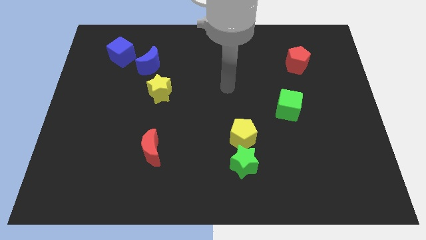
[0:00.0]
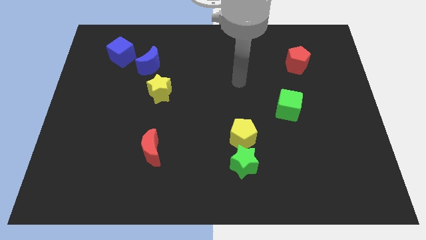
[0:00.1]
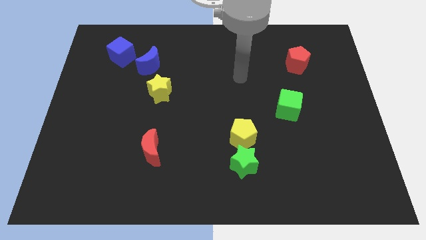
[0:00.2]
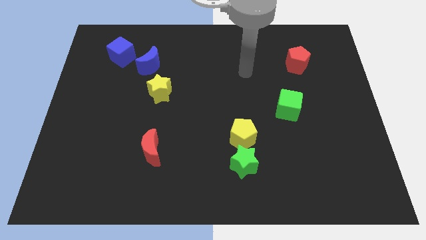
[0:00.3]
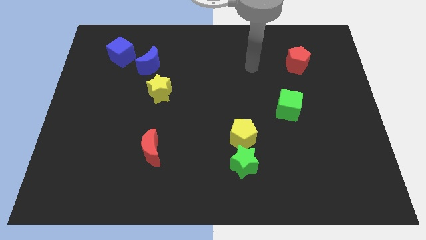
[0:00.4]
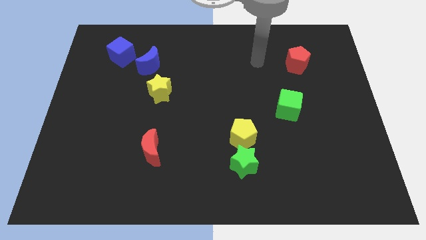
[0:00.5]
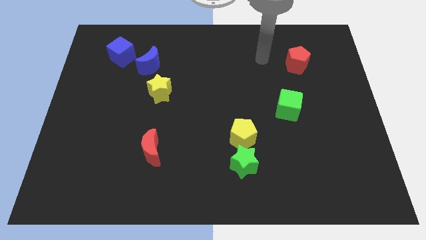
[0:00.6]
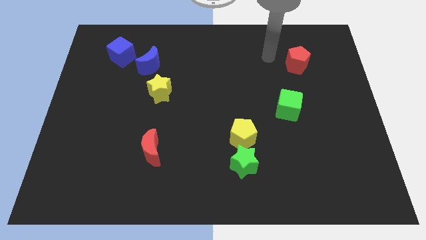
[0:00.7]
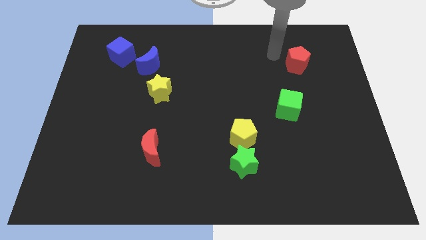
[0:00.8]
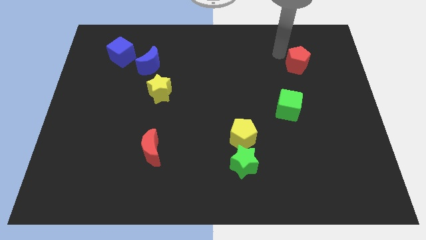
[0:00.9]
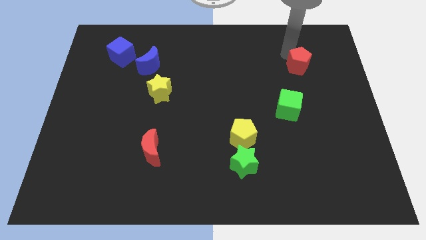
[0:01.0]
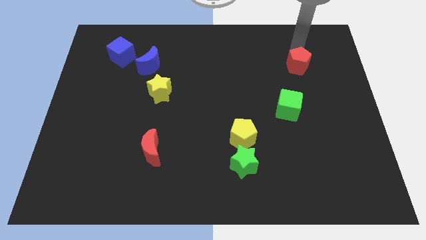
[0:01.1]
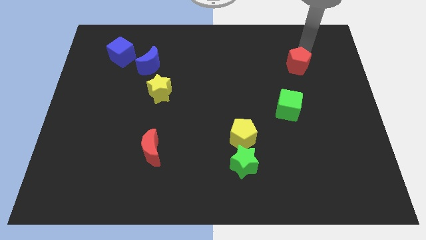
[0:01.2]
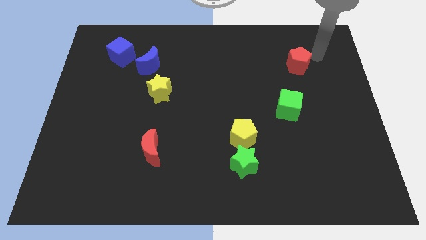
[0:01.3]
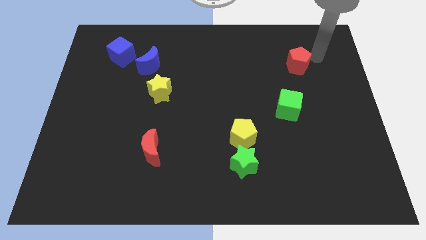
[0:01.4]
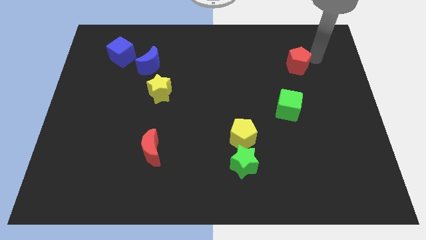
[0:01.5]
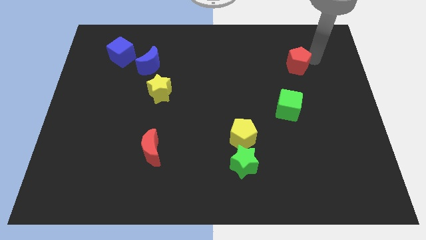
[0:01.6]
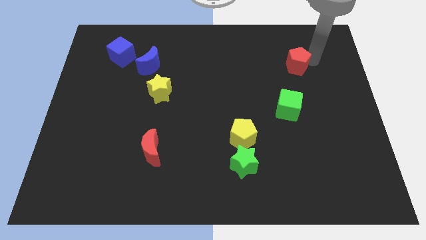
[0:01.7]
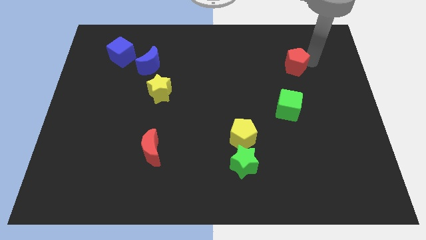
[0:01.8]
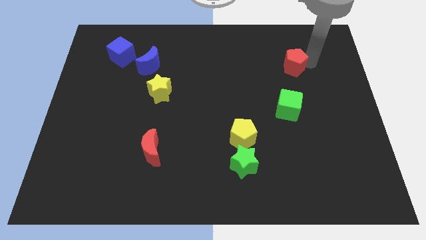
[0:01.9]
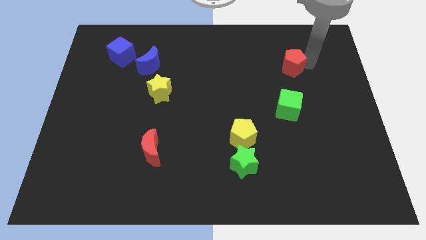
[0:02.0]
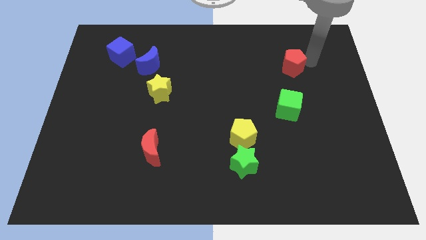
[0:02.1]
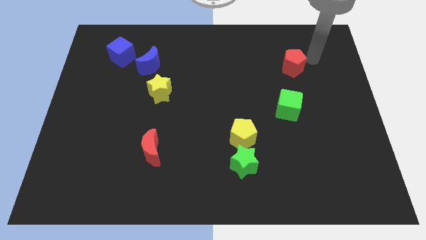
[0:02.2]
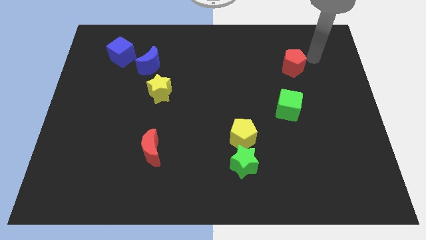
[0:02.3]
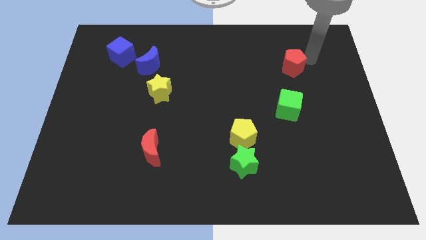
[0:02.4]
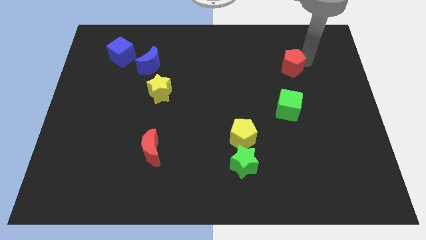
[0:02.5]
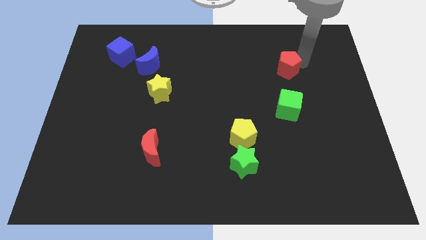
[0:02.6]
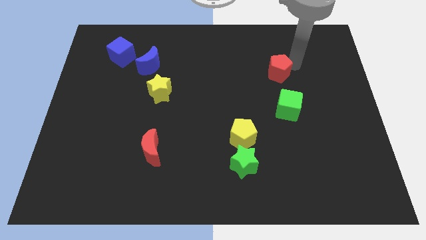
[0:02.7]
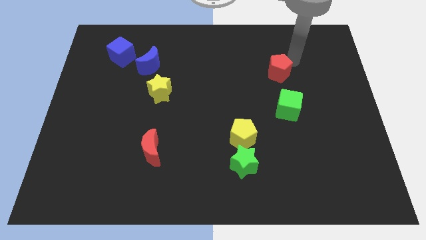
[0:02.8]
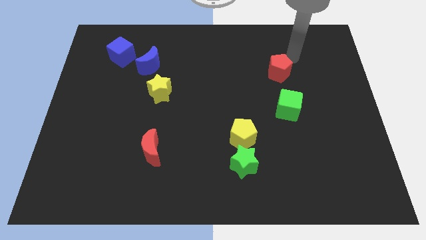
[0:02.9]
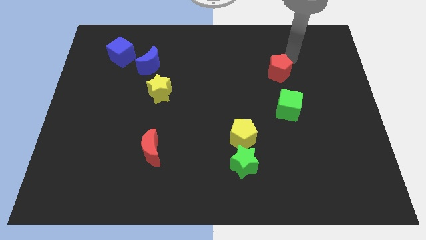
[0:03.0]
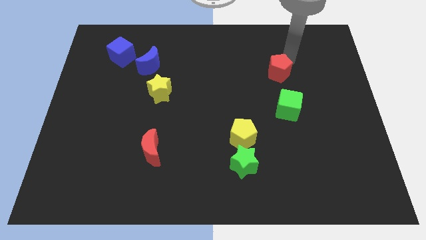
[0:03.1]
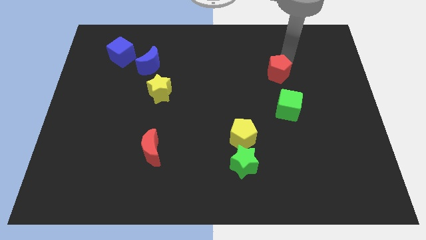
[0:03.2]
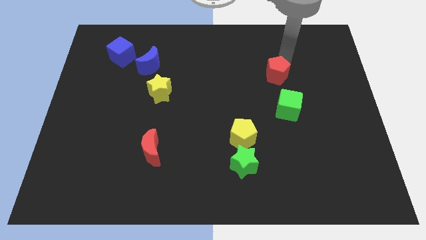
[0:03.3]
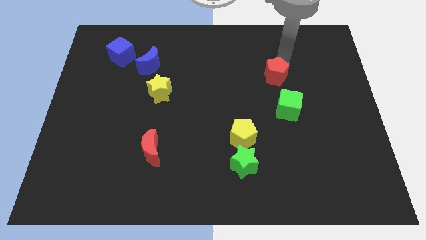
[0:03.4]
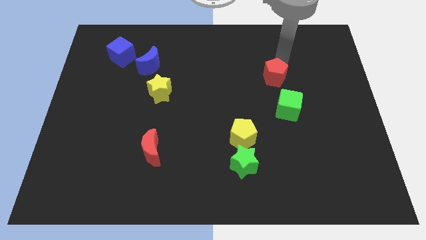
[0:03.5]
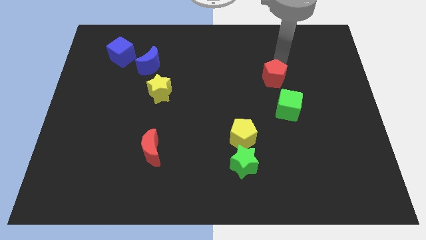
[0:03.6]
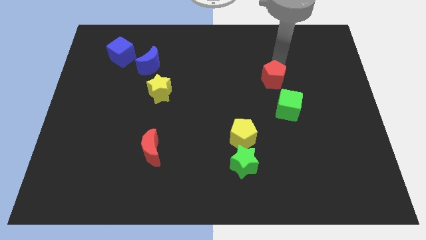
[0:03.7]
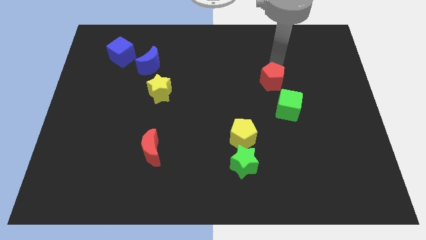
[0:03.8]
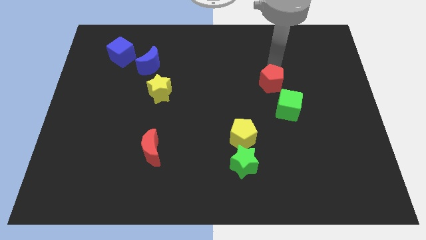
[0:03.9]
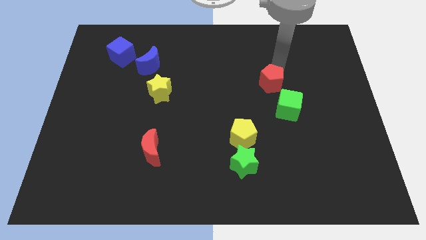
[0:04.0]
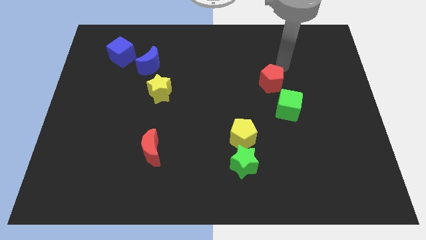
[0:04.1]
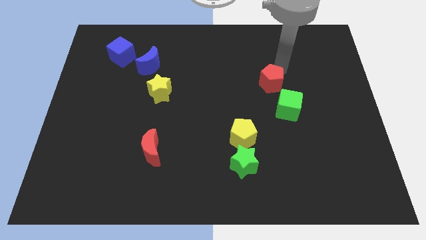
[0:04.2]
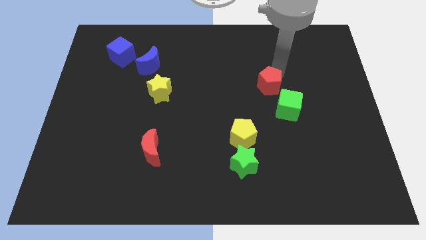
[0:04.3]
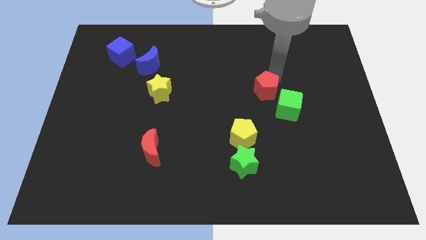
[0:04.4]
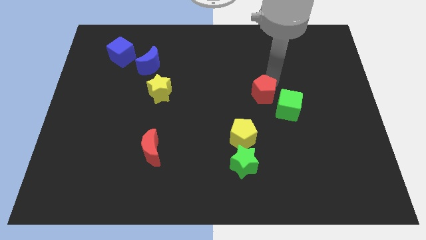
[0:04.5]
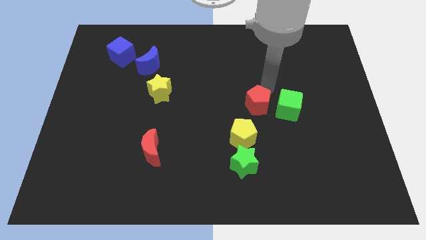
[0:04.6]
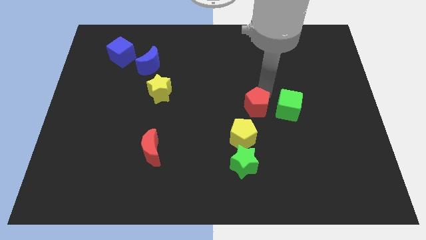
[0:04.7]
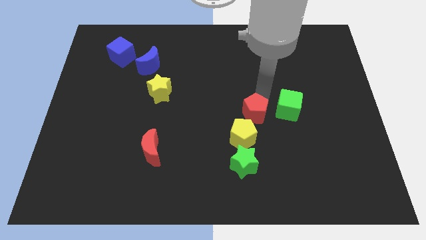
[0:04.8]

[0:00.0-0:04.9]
push the red pentagon above the green star

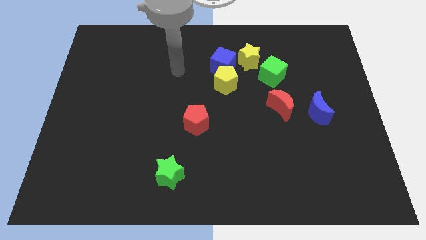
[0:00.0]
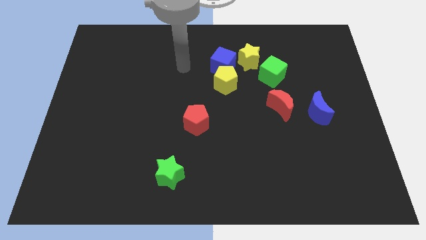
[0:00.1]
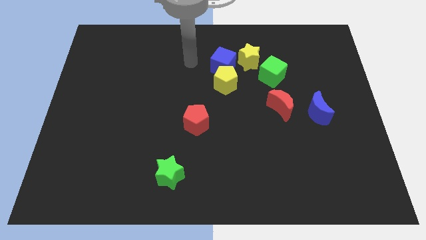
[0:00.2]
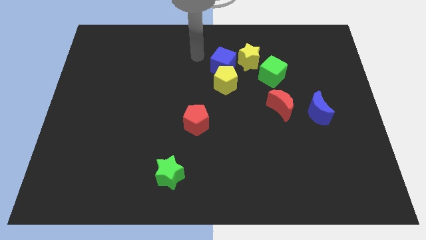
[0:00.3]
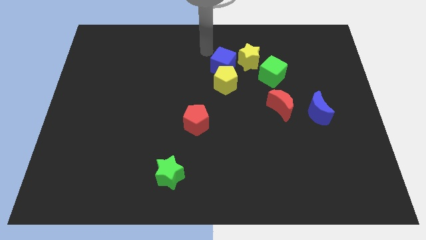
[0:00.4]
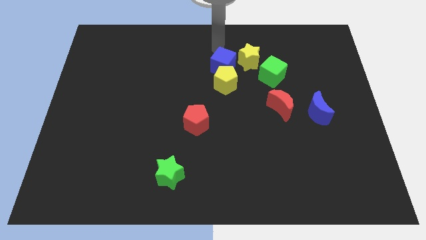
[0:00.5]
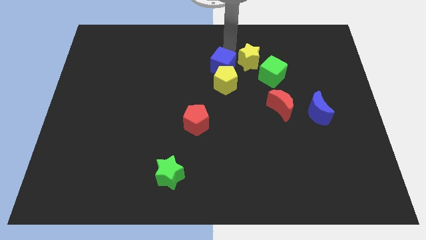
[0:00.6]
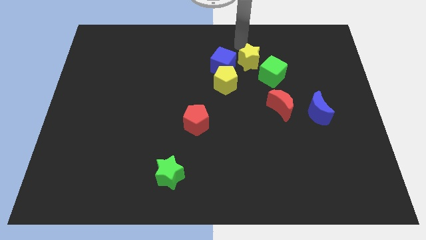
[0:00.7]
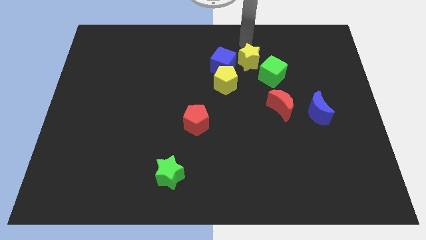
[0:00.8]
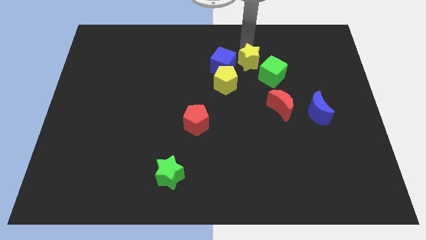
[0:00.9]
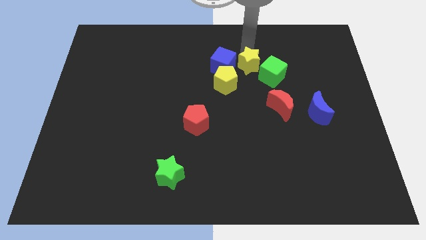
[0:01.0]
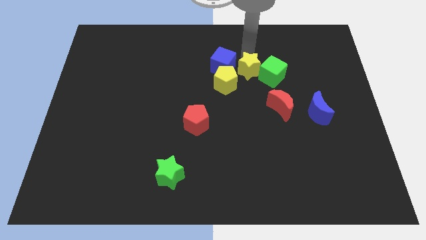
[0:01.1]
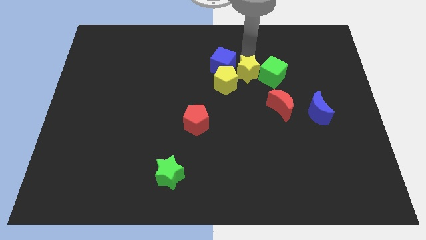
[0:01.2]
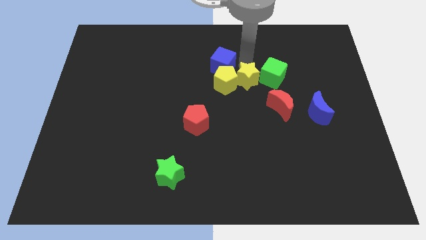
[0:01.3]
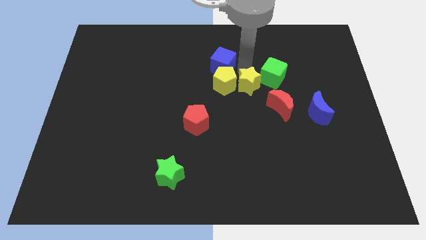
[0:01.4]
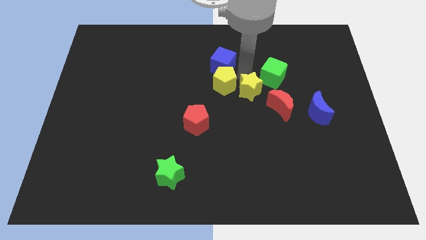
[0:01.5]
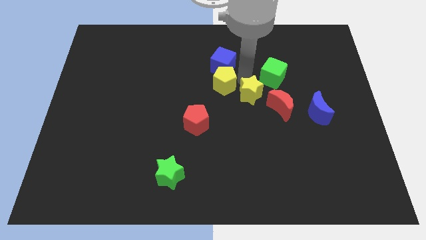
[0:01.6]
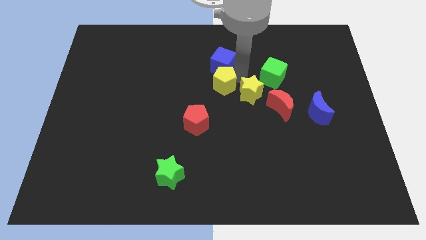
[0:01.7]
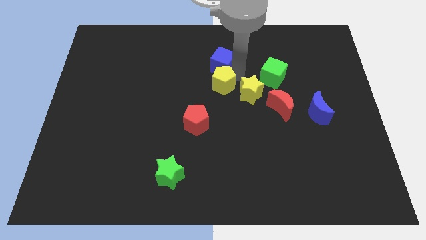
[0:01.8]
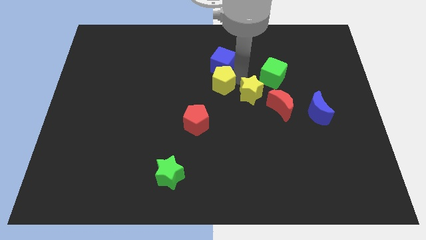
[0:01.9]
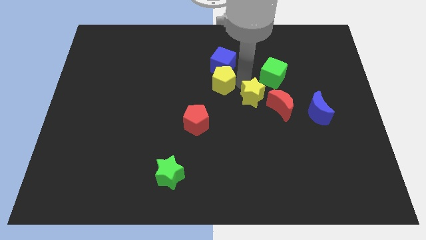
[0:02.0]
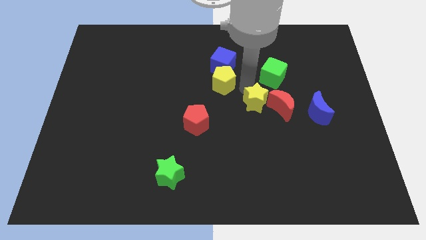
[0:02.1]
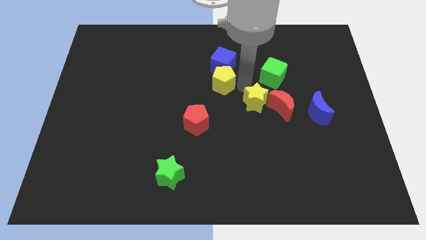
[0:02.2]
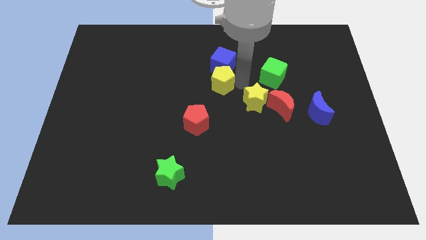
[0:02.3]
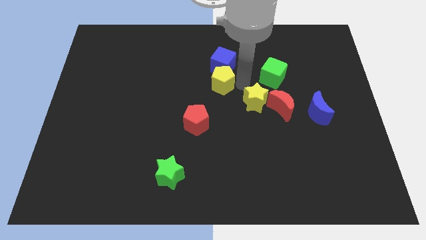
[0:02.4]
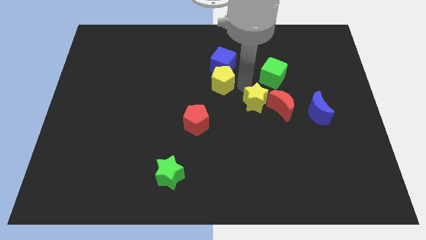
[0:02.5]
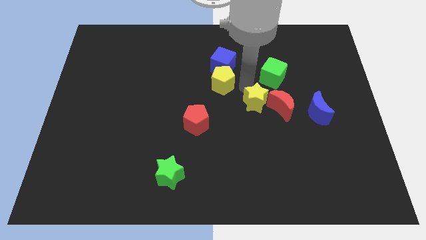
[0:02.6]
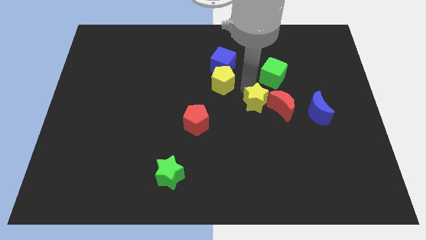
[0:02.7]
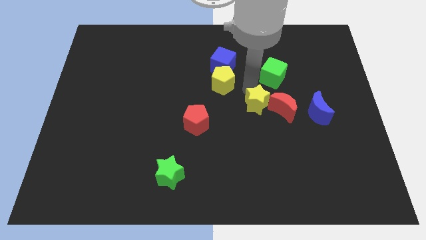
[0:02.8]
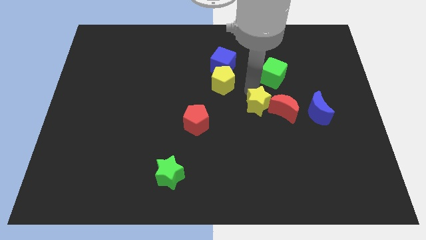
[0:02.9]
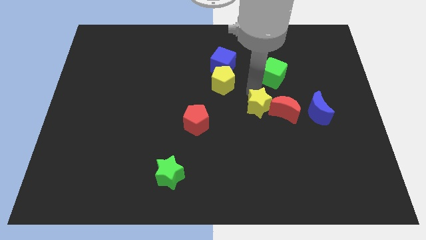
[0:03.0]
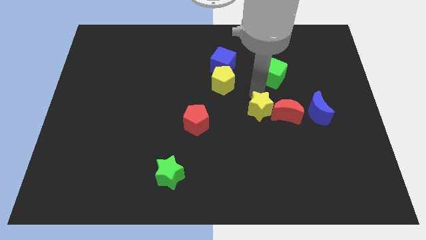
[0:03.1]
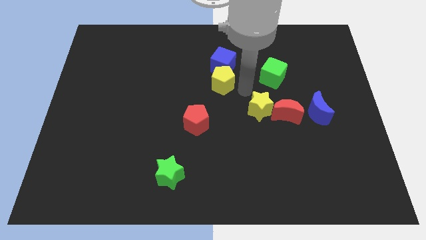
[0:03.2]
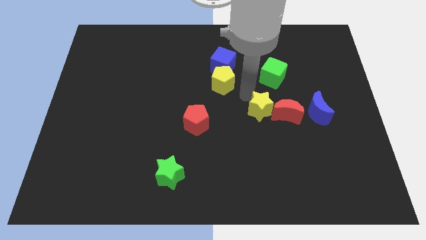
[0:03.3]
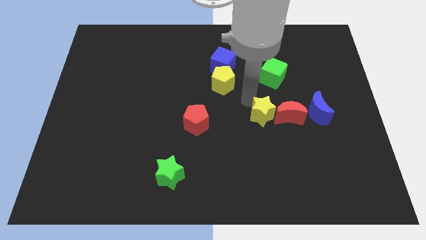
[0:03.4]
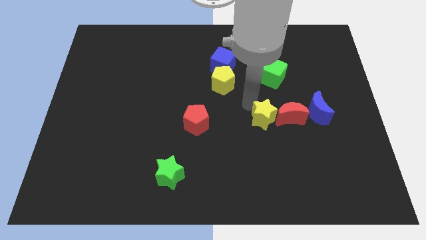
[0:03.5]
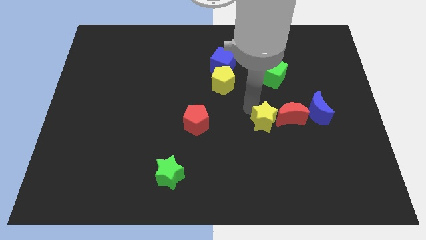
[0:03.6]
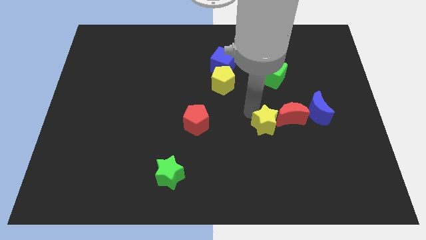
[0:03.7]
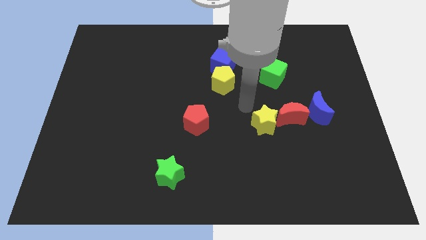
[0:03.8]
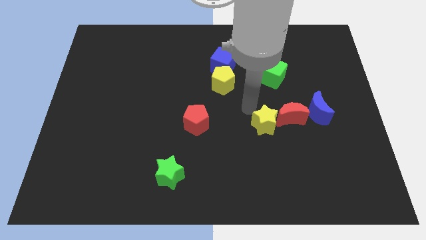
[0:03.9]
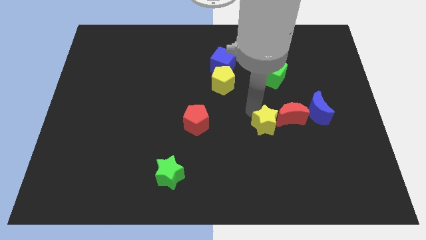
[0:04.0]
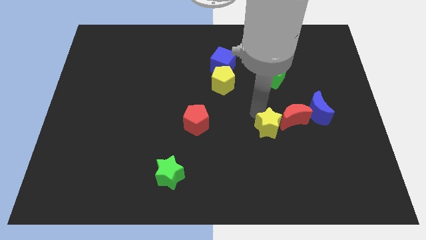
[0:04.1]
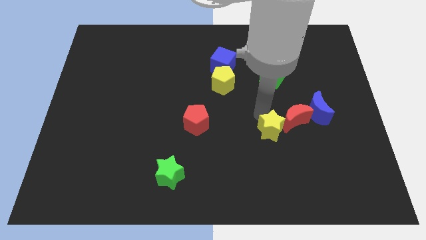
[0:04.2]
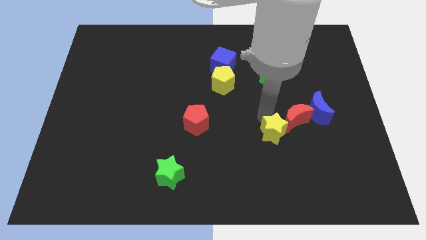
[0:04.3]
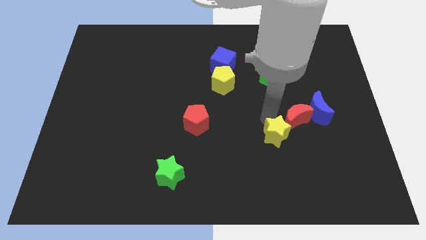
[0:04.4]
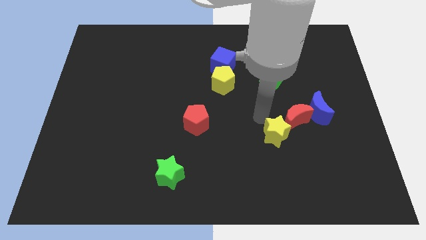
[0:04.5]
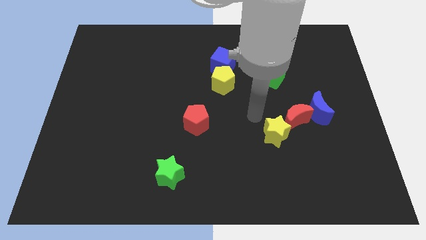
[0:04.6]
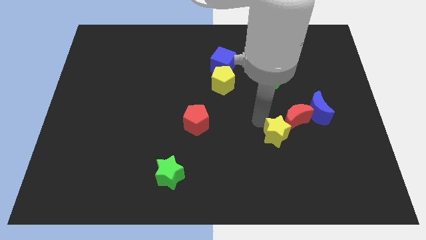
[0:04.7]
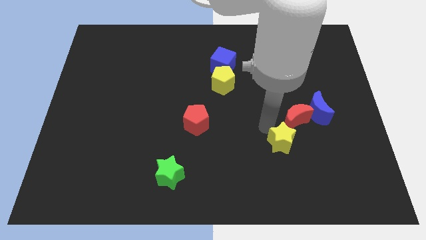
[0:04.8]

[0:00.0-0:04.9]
push the yellow star below the red moon
